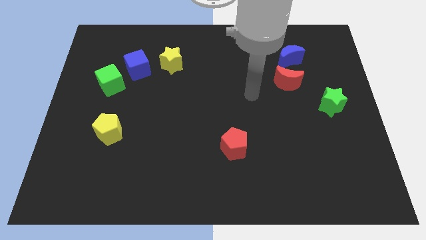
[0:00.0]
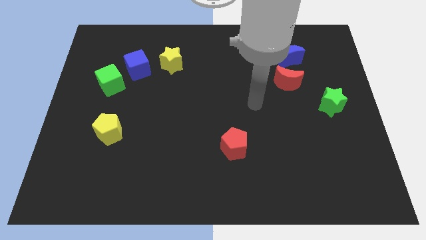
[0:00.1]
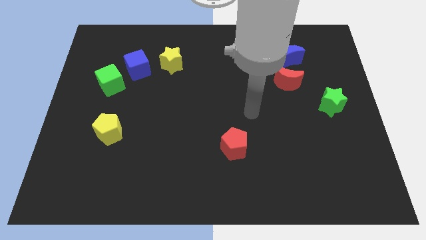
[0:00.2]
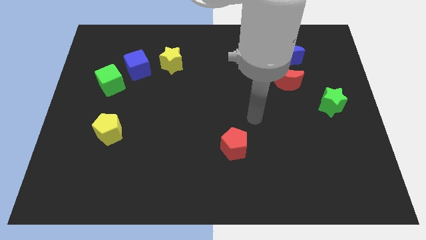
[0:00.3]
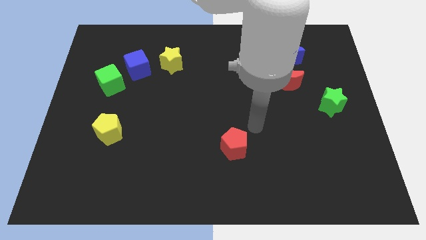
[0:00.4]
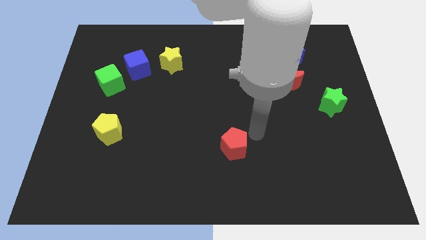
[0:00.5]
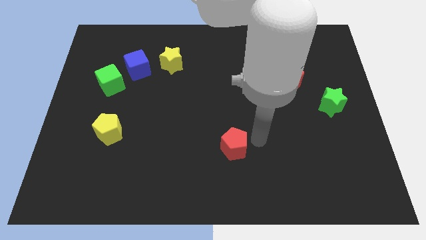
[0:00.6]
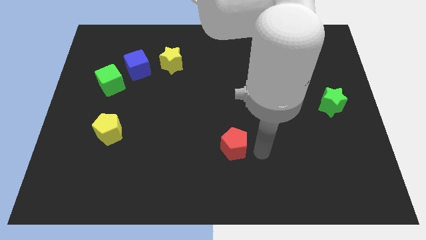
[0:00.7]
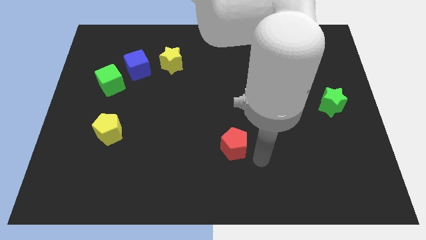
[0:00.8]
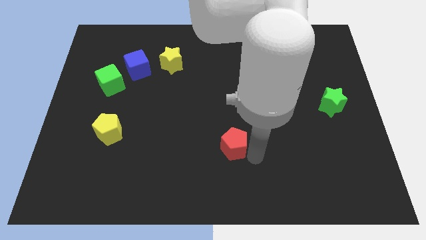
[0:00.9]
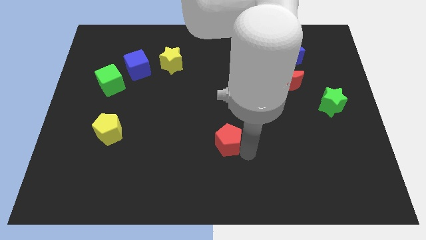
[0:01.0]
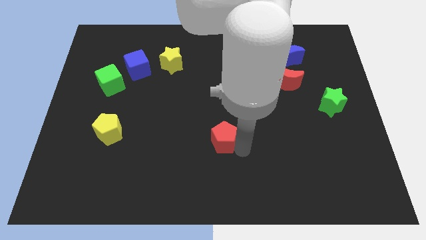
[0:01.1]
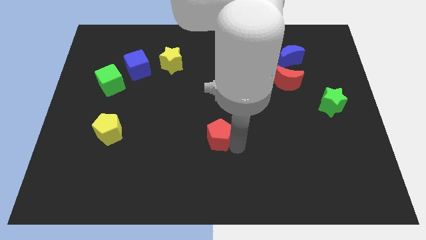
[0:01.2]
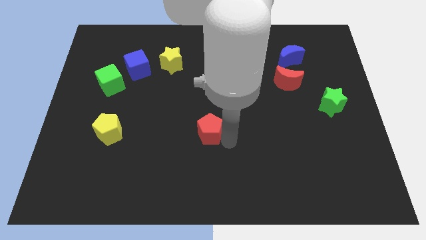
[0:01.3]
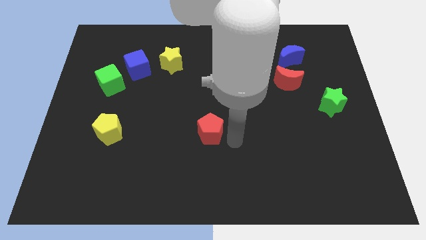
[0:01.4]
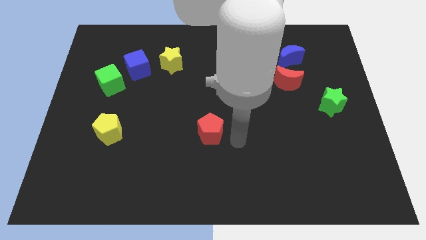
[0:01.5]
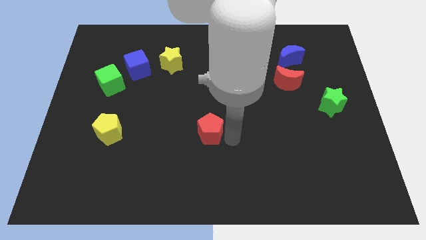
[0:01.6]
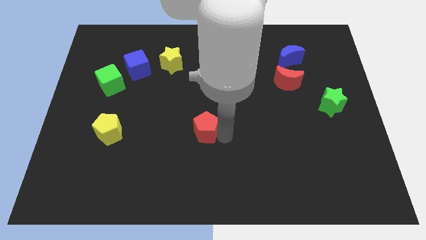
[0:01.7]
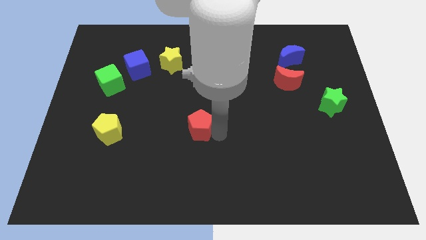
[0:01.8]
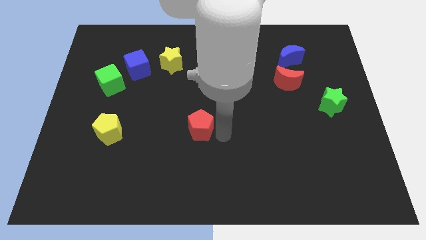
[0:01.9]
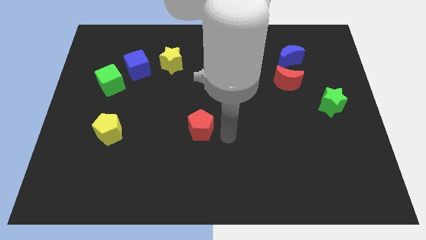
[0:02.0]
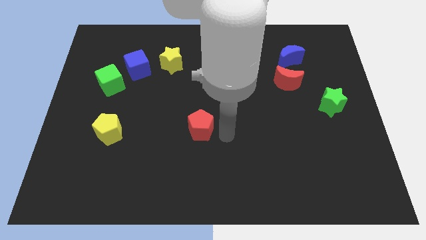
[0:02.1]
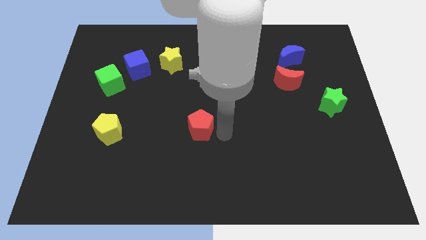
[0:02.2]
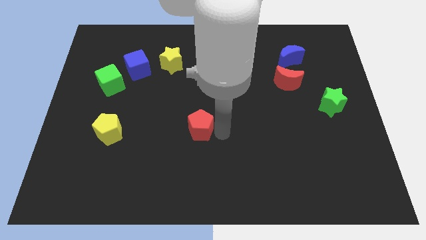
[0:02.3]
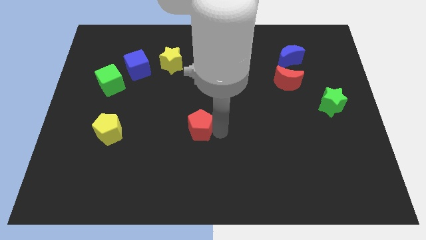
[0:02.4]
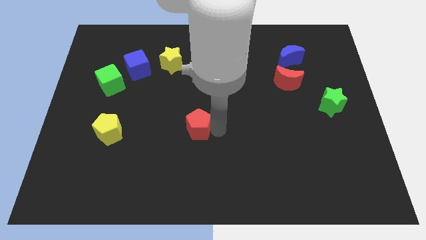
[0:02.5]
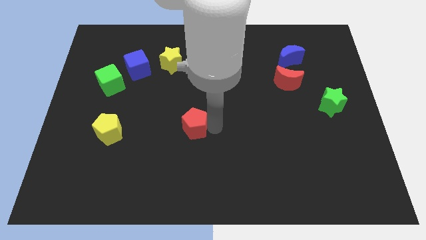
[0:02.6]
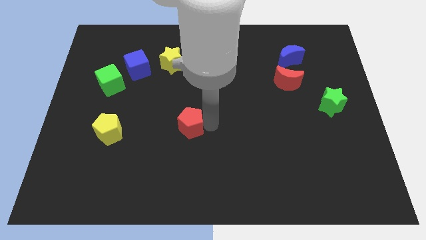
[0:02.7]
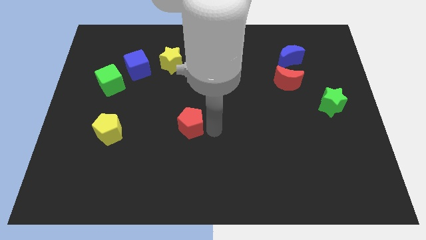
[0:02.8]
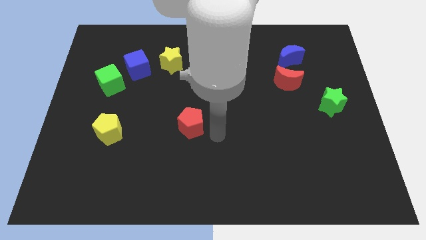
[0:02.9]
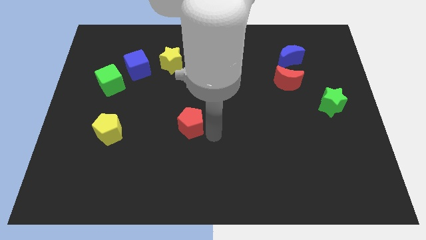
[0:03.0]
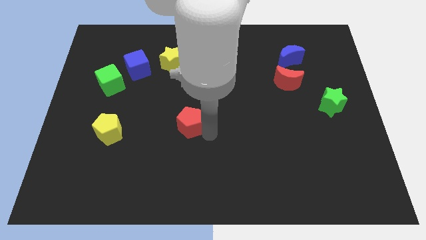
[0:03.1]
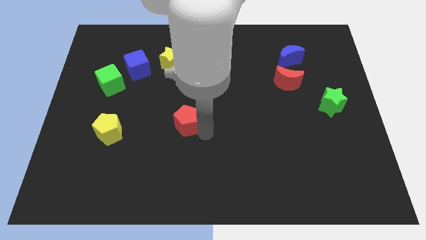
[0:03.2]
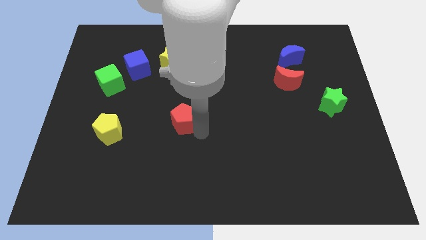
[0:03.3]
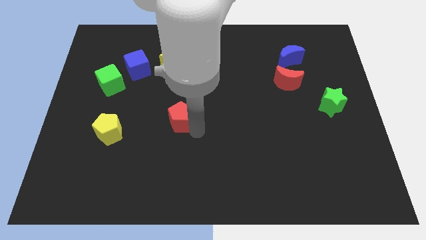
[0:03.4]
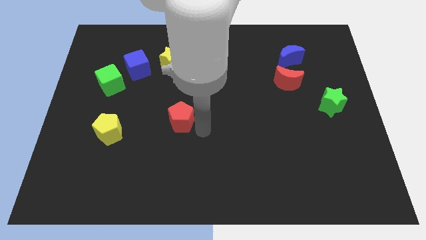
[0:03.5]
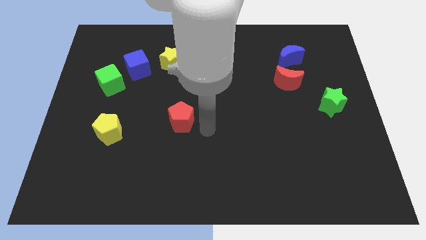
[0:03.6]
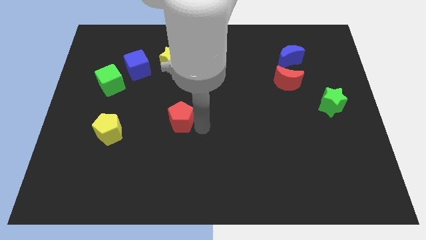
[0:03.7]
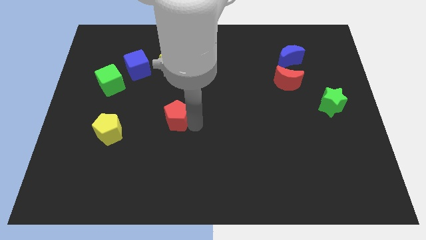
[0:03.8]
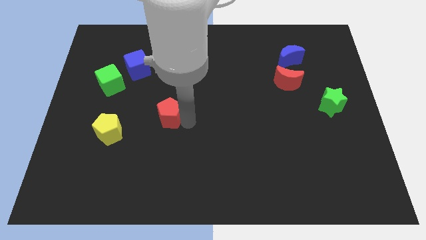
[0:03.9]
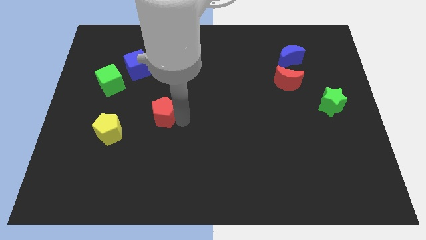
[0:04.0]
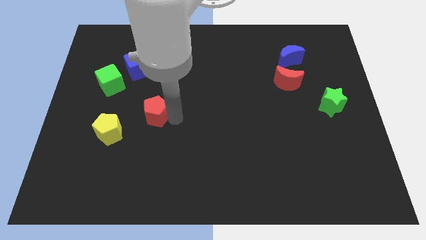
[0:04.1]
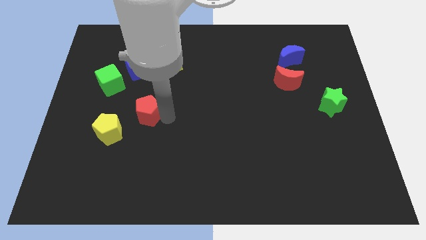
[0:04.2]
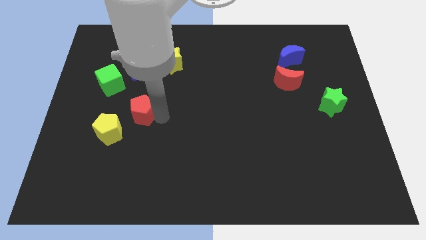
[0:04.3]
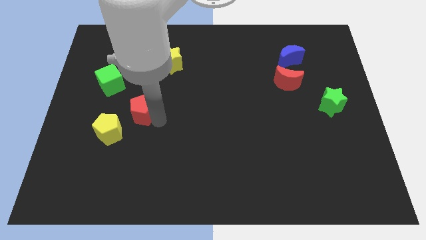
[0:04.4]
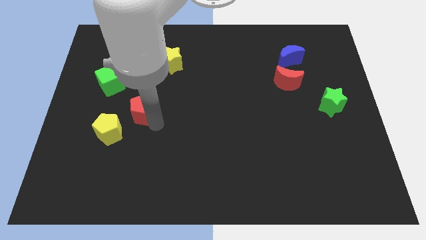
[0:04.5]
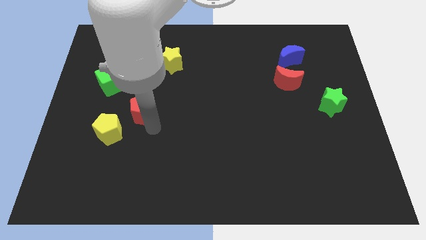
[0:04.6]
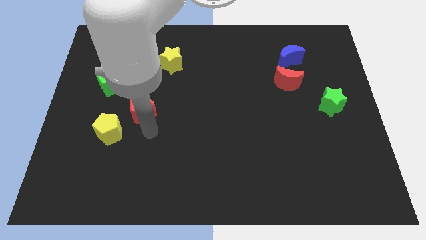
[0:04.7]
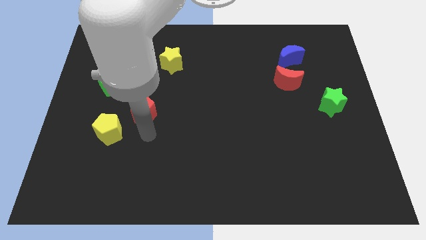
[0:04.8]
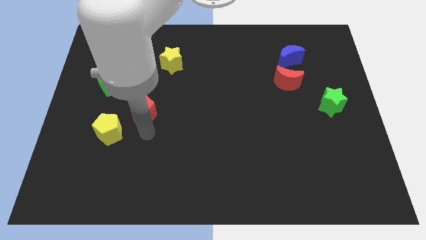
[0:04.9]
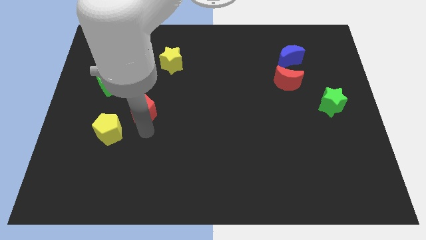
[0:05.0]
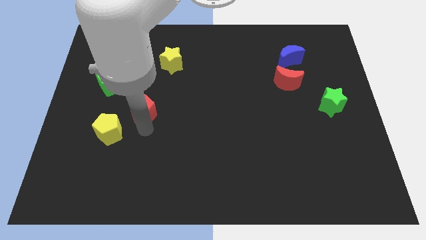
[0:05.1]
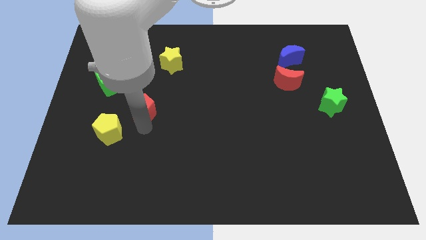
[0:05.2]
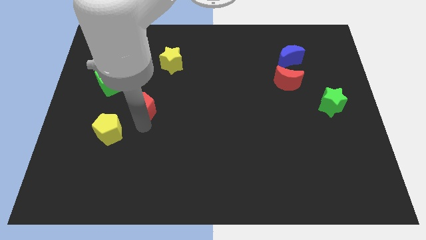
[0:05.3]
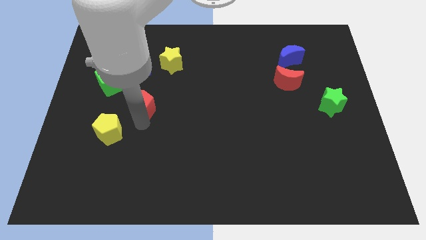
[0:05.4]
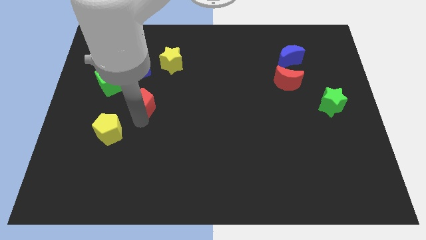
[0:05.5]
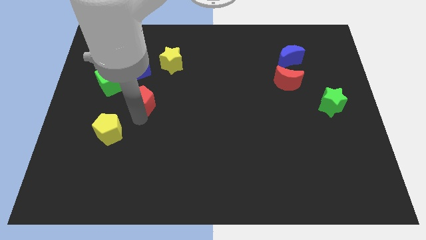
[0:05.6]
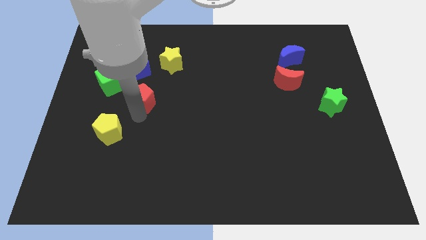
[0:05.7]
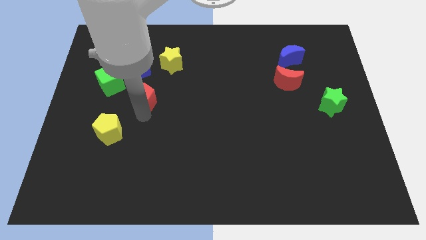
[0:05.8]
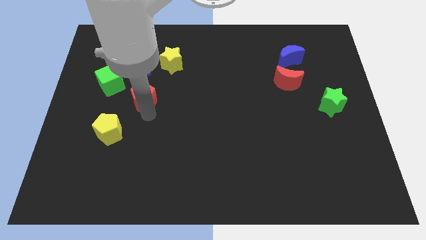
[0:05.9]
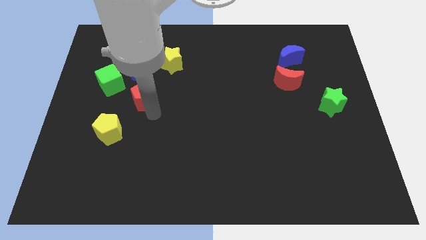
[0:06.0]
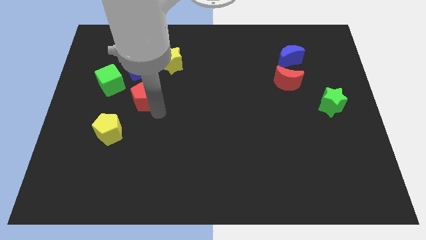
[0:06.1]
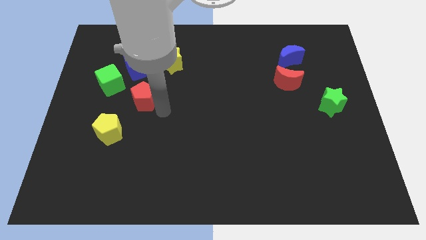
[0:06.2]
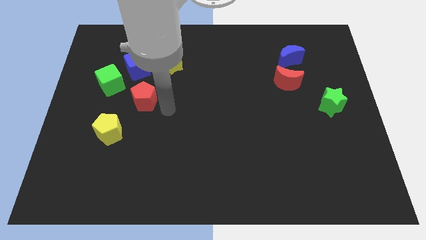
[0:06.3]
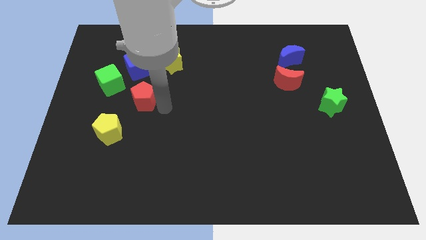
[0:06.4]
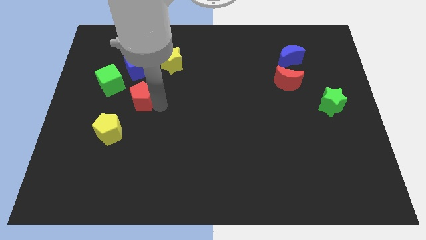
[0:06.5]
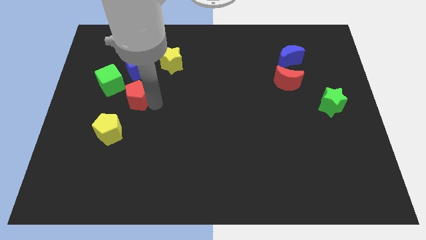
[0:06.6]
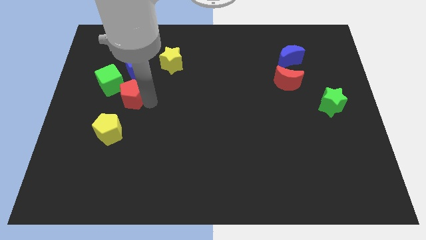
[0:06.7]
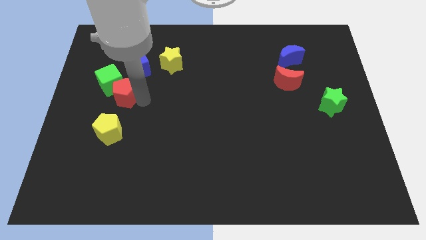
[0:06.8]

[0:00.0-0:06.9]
move the red pentagon next to the green cube

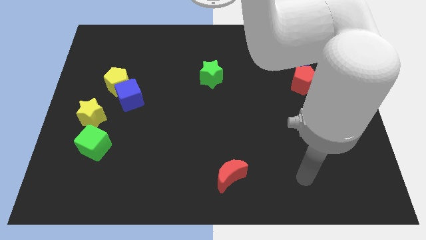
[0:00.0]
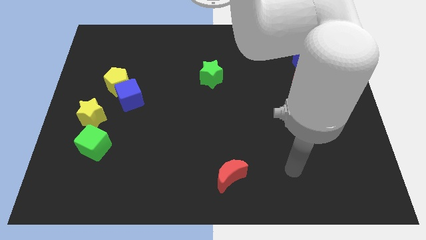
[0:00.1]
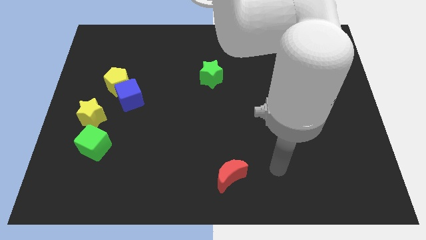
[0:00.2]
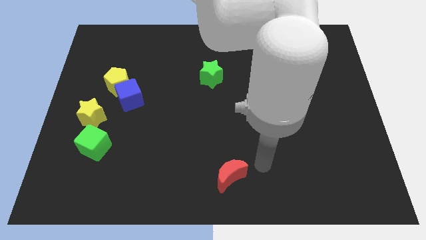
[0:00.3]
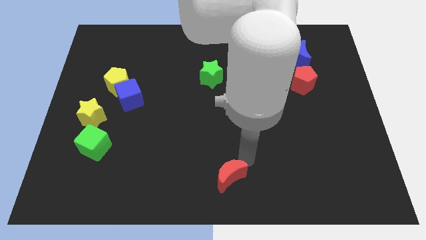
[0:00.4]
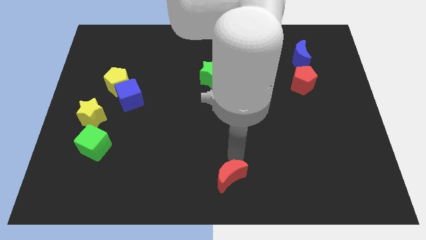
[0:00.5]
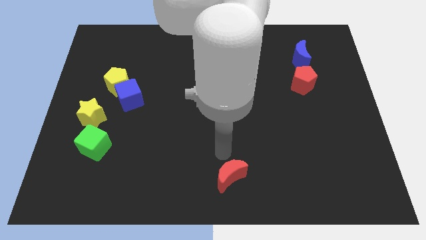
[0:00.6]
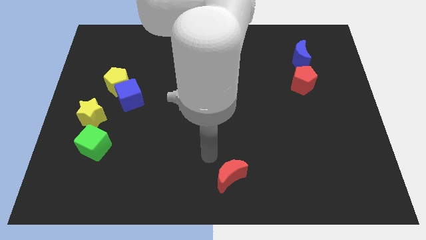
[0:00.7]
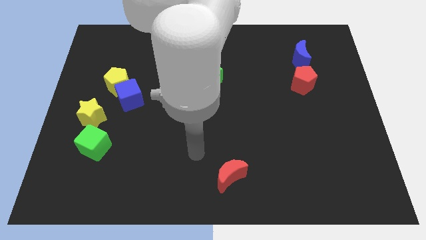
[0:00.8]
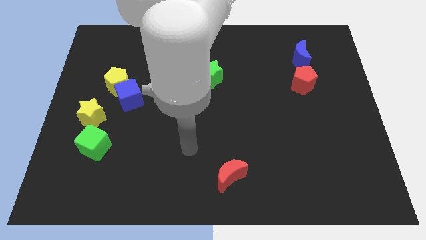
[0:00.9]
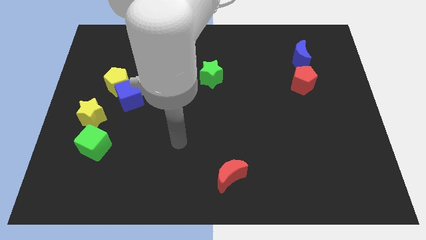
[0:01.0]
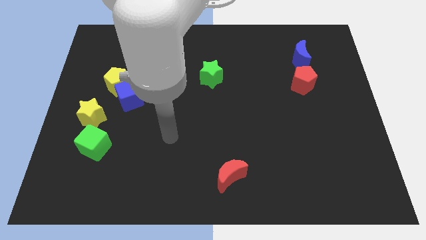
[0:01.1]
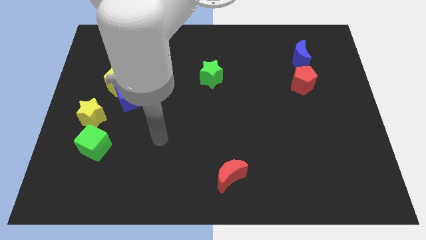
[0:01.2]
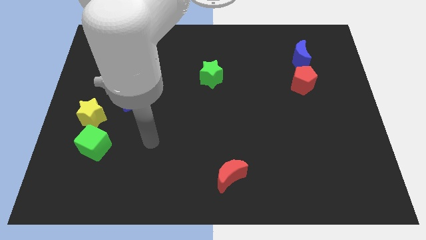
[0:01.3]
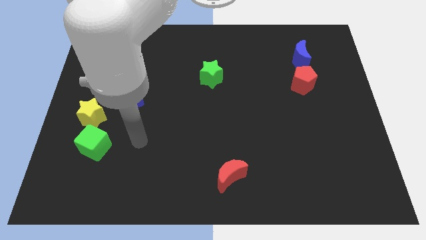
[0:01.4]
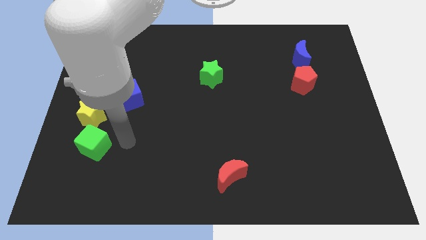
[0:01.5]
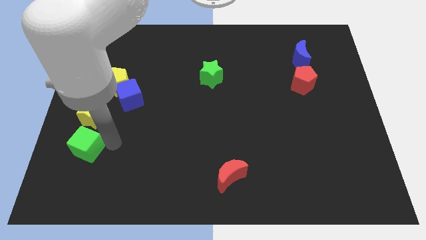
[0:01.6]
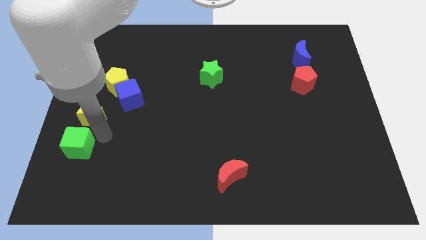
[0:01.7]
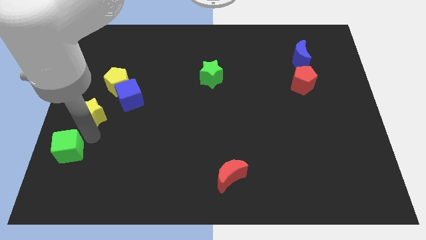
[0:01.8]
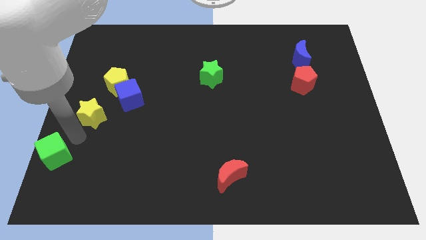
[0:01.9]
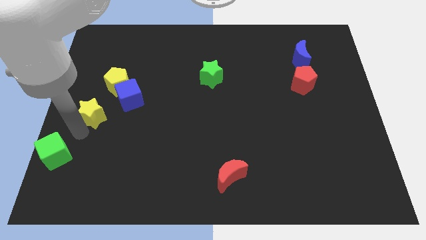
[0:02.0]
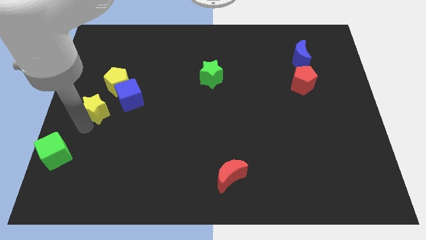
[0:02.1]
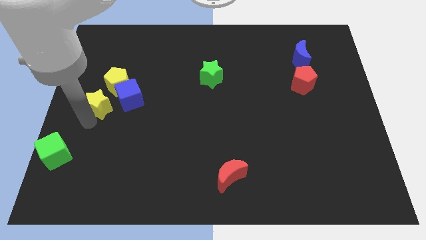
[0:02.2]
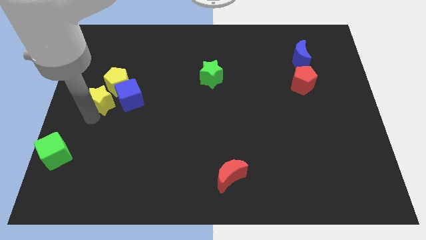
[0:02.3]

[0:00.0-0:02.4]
slide the yellow star close to the yellow pentagon
